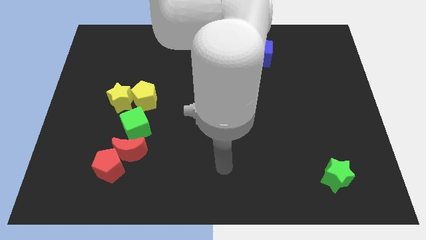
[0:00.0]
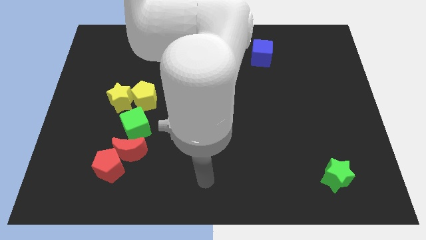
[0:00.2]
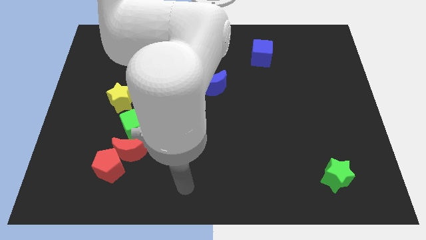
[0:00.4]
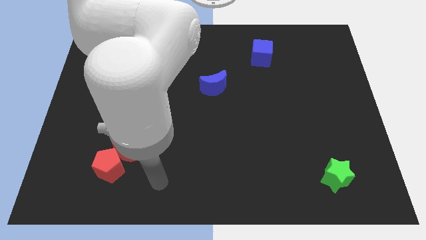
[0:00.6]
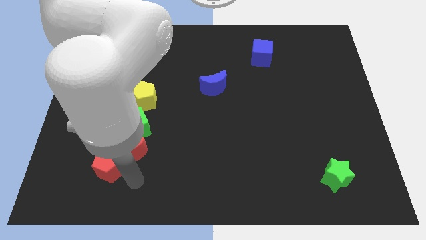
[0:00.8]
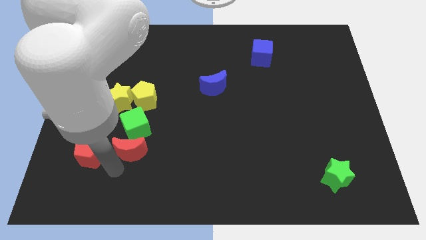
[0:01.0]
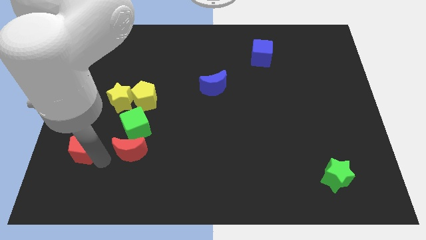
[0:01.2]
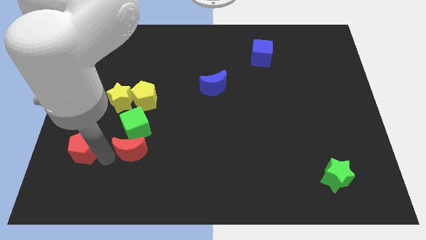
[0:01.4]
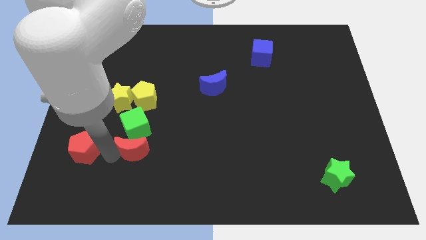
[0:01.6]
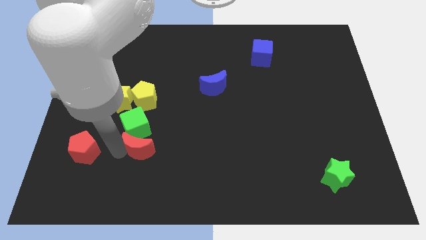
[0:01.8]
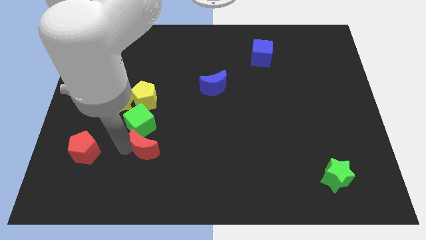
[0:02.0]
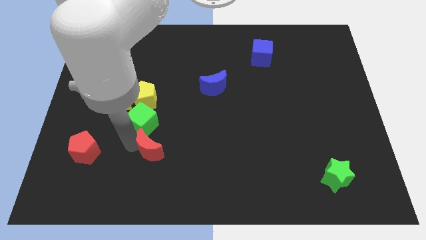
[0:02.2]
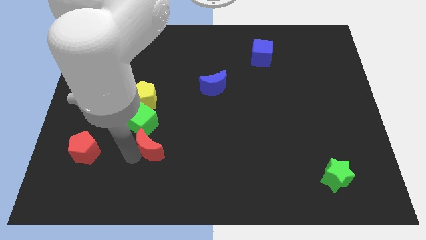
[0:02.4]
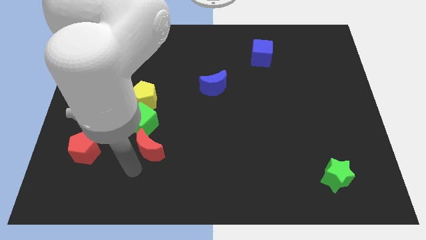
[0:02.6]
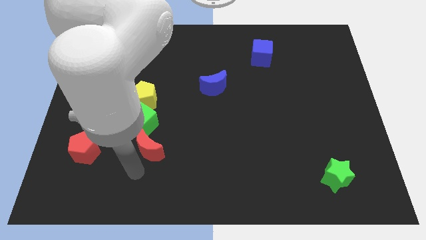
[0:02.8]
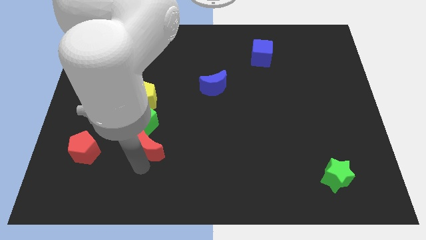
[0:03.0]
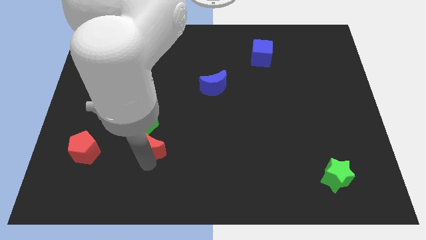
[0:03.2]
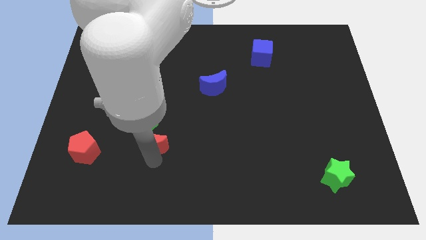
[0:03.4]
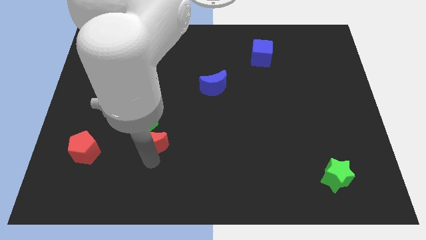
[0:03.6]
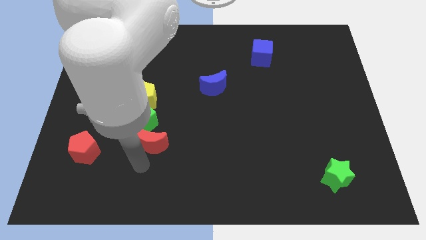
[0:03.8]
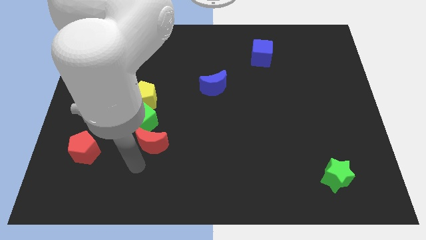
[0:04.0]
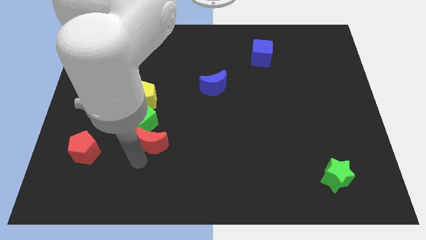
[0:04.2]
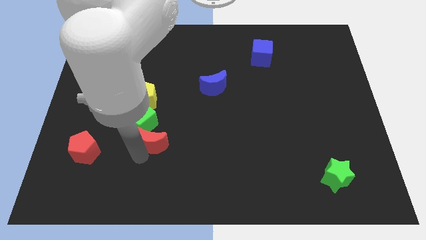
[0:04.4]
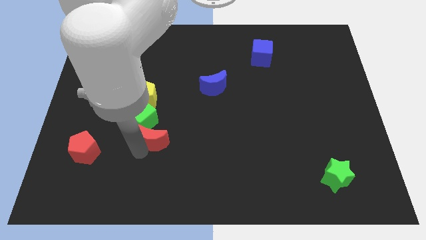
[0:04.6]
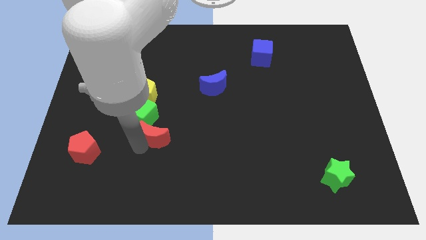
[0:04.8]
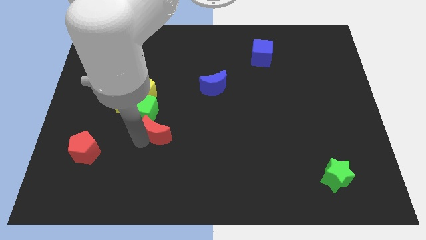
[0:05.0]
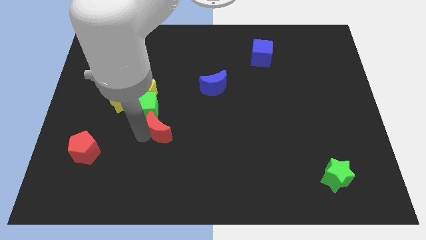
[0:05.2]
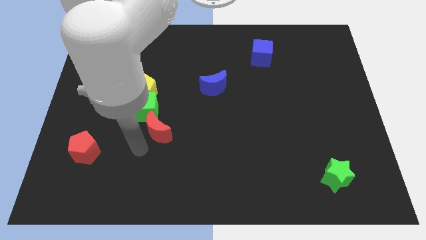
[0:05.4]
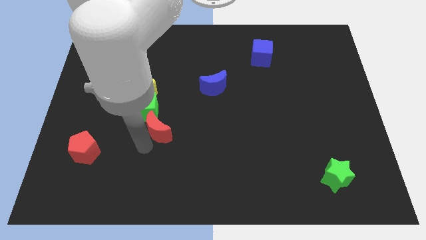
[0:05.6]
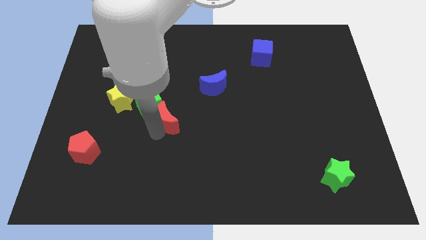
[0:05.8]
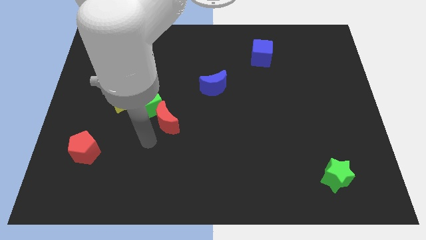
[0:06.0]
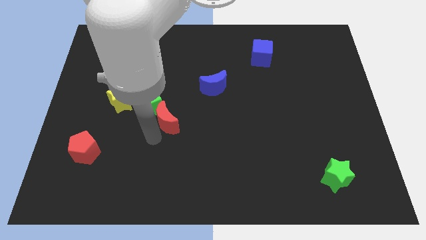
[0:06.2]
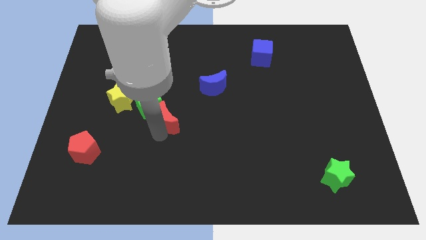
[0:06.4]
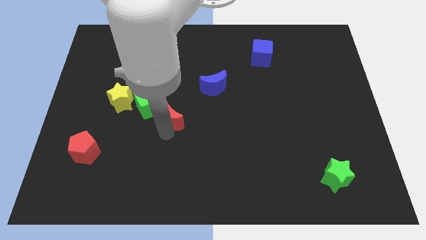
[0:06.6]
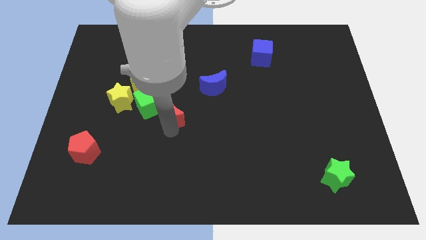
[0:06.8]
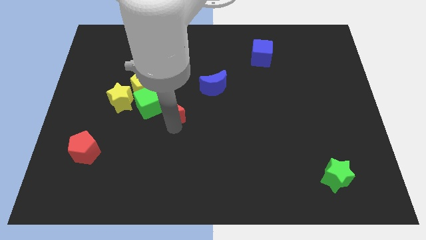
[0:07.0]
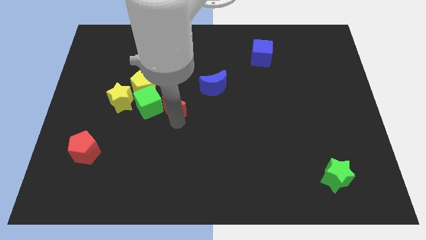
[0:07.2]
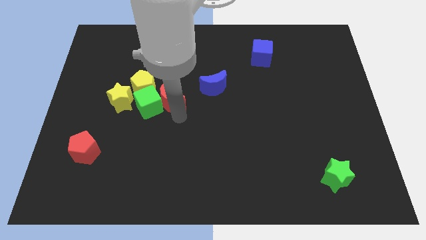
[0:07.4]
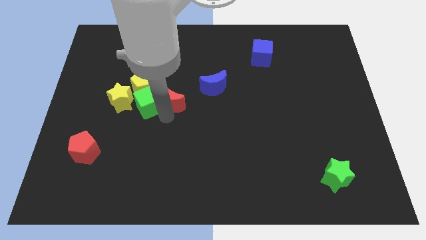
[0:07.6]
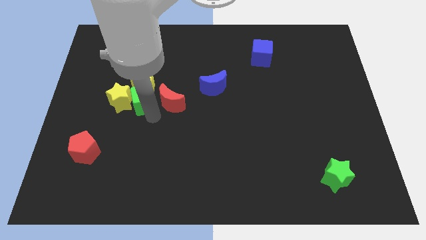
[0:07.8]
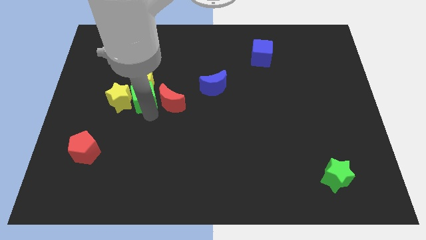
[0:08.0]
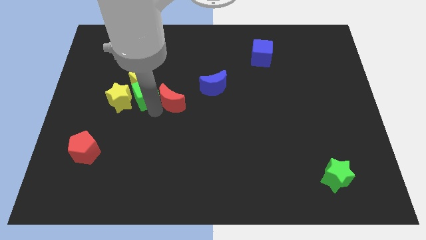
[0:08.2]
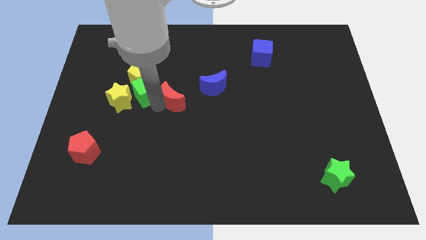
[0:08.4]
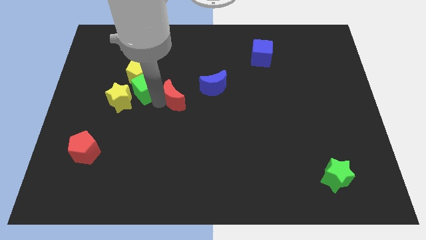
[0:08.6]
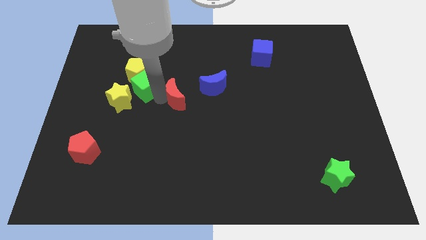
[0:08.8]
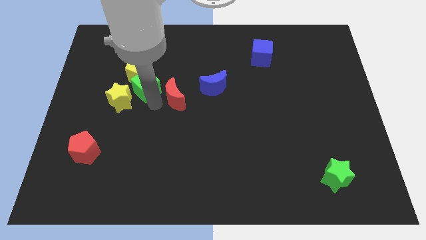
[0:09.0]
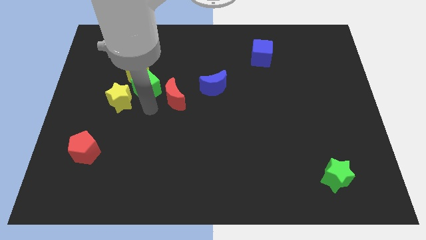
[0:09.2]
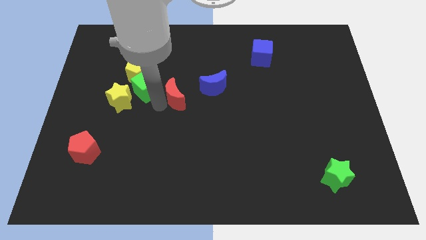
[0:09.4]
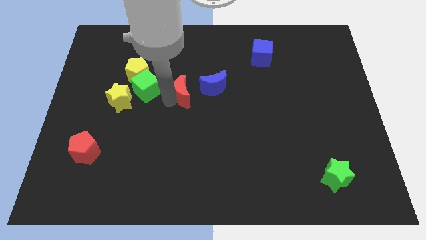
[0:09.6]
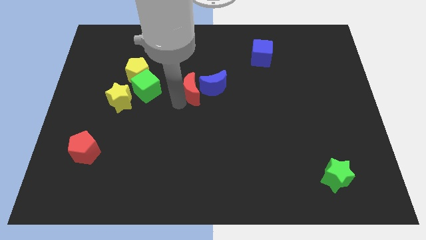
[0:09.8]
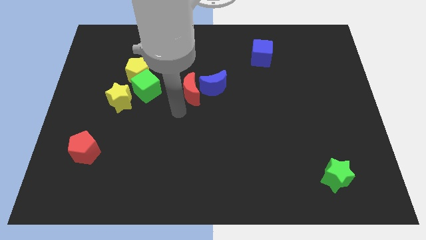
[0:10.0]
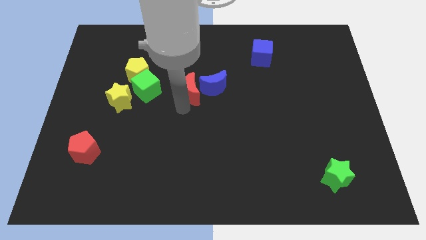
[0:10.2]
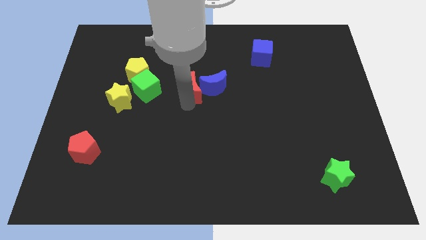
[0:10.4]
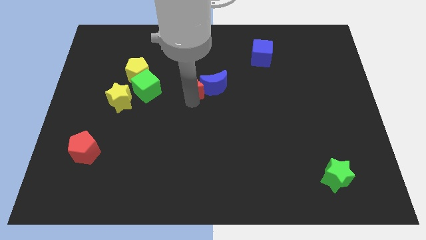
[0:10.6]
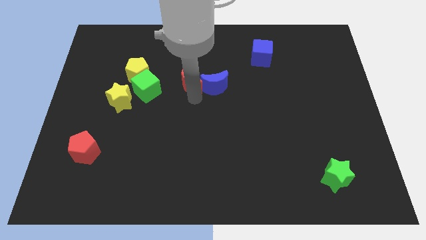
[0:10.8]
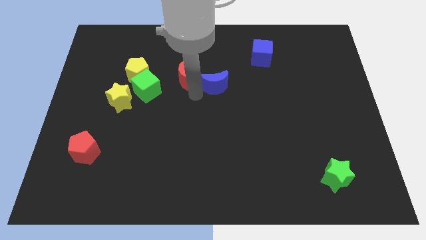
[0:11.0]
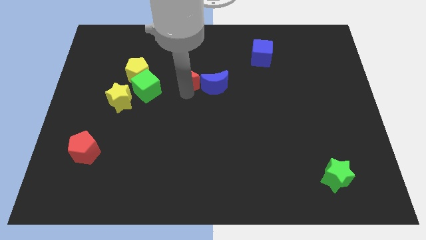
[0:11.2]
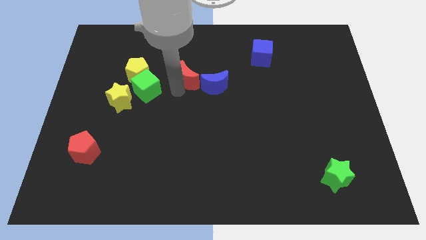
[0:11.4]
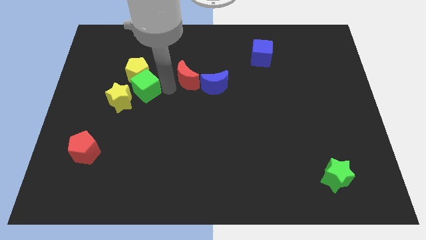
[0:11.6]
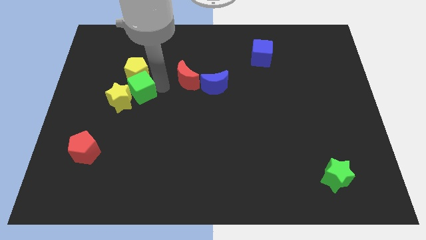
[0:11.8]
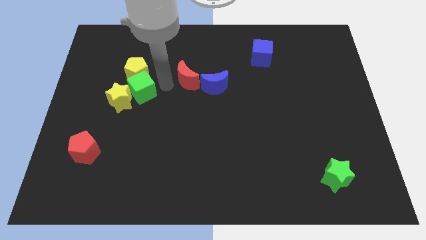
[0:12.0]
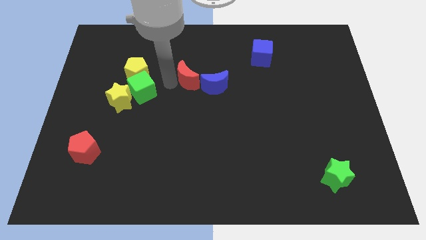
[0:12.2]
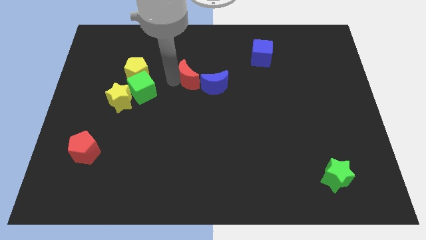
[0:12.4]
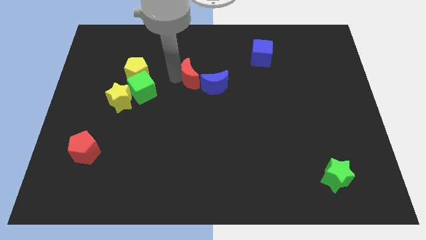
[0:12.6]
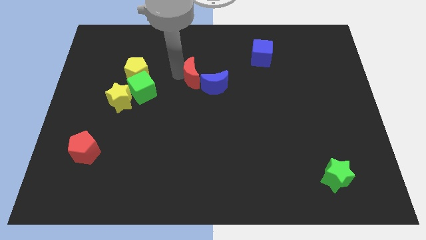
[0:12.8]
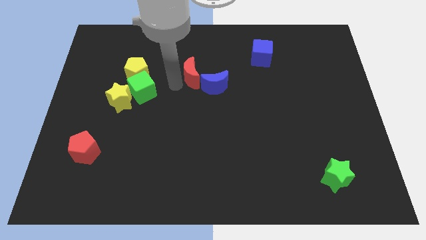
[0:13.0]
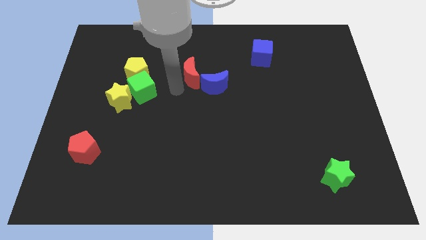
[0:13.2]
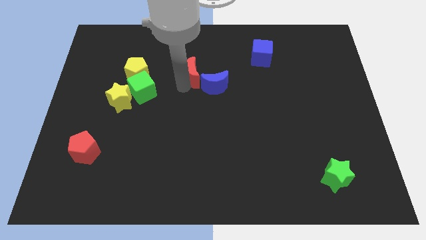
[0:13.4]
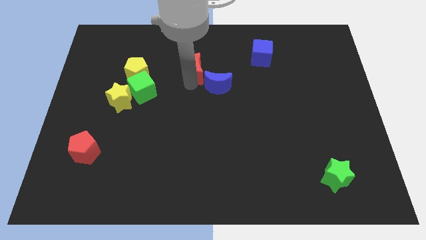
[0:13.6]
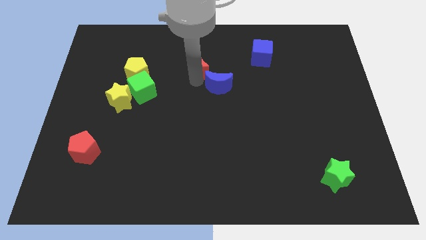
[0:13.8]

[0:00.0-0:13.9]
push the red moon above the blue moon
